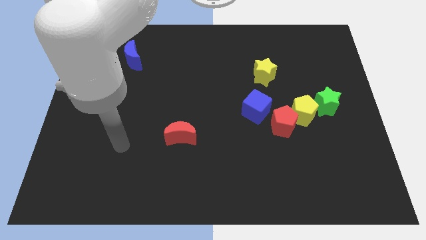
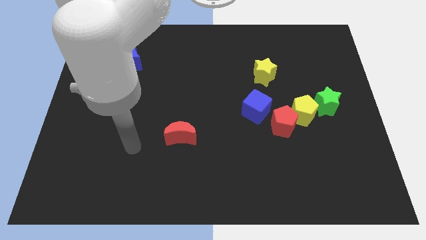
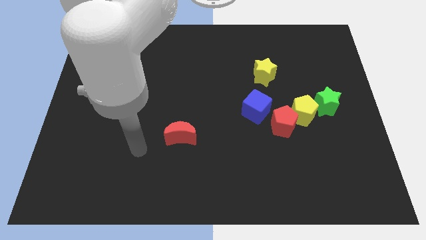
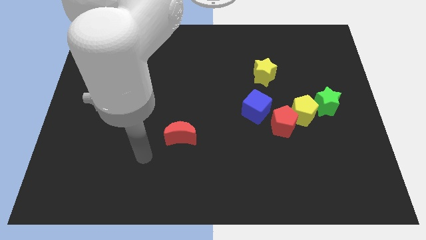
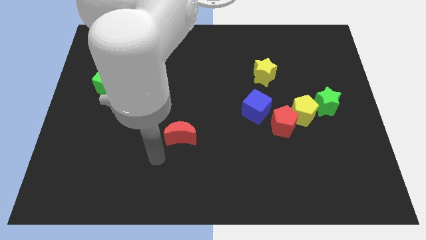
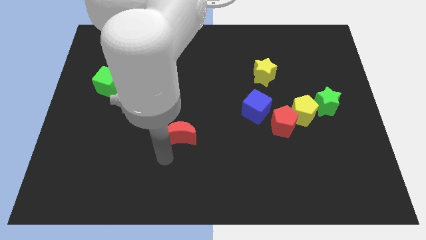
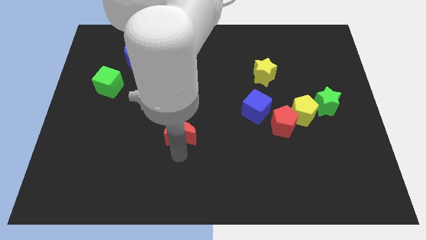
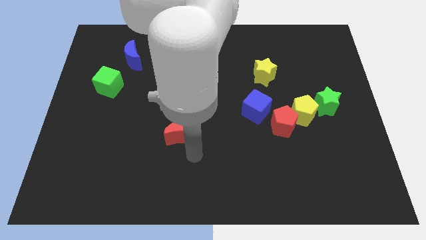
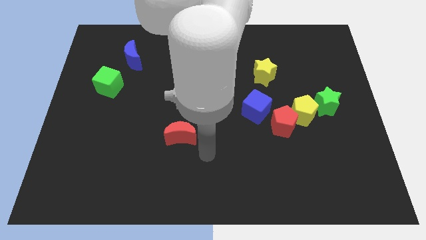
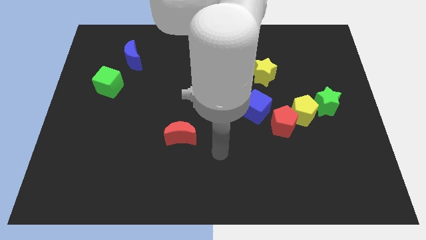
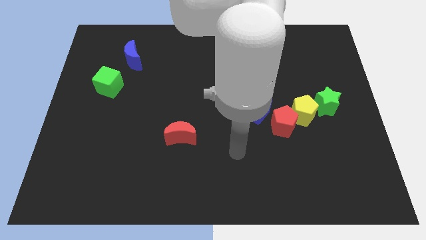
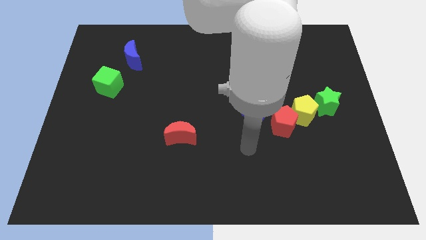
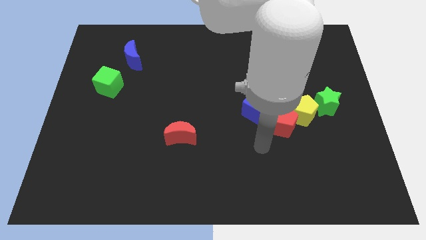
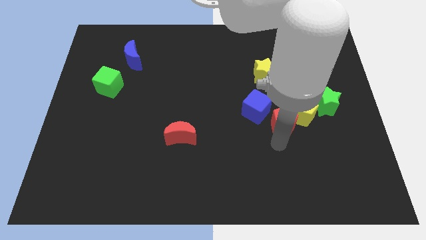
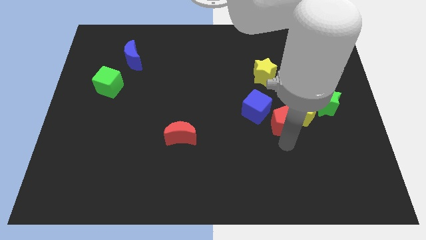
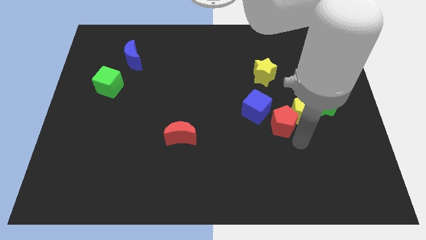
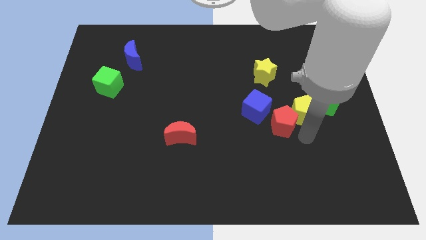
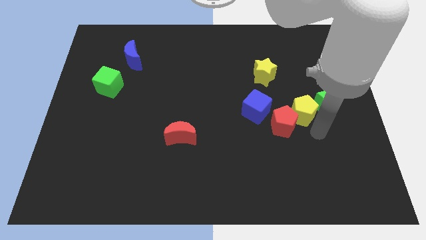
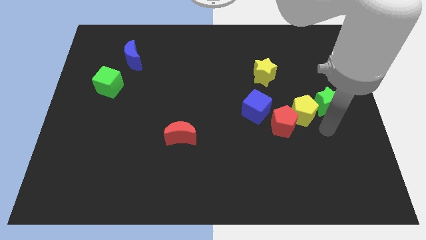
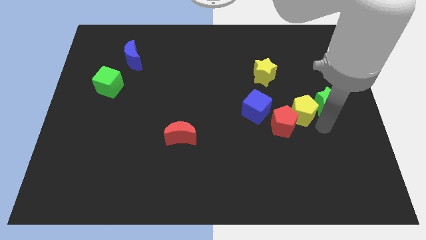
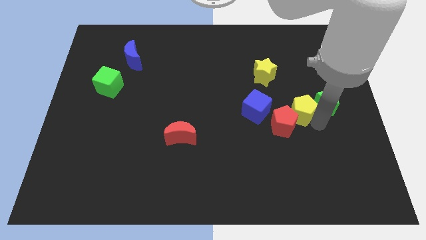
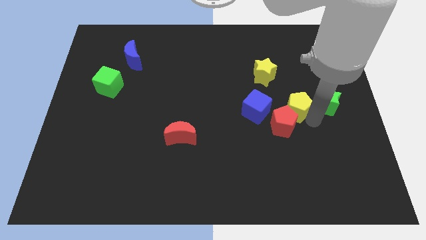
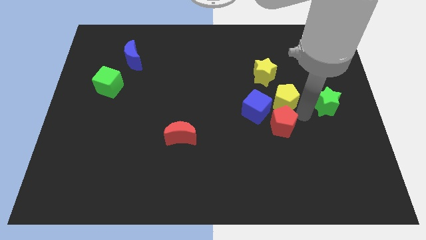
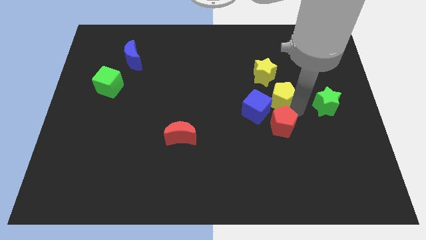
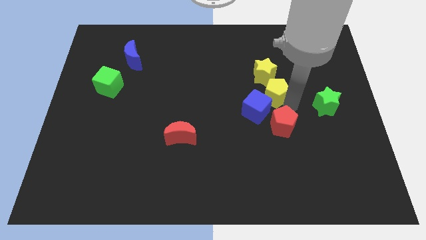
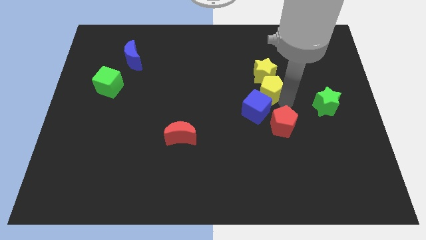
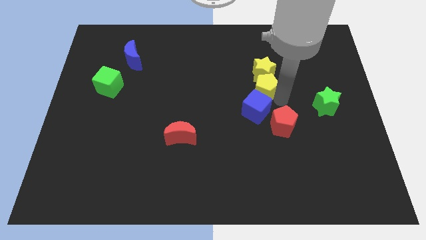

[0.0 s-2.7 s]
separate the yellow pentagon from the red pentagon and green star

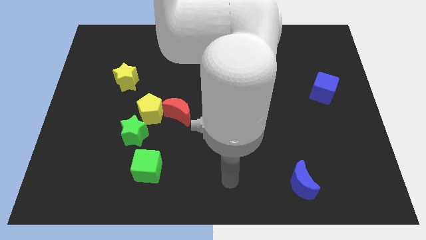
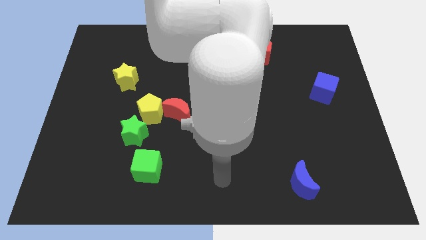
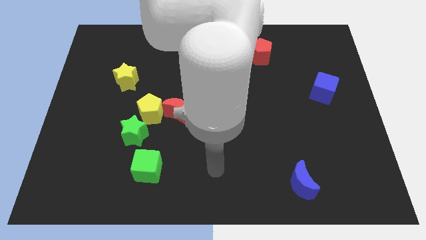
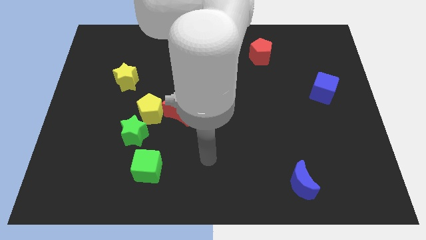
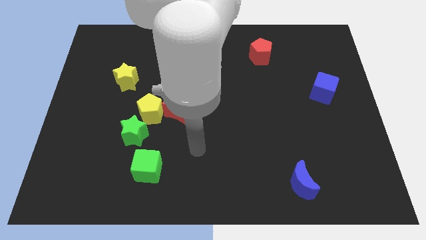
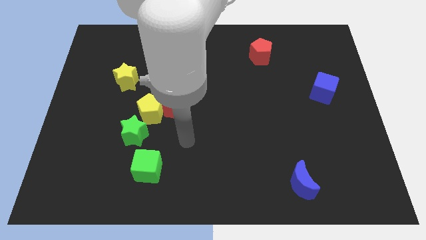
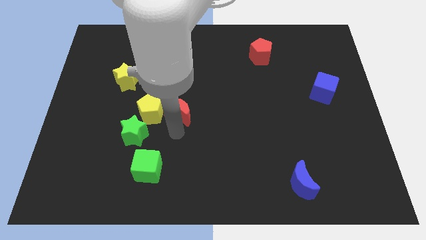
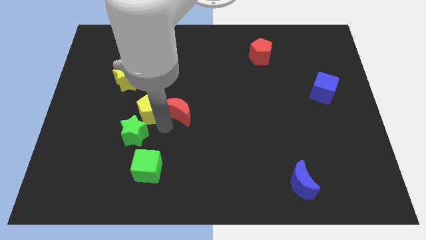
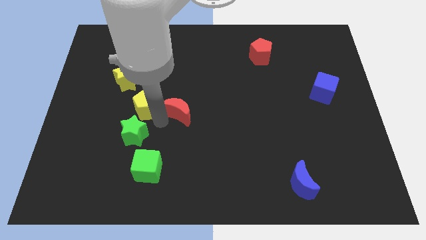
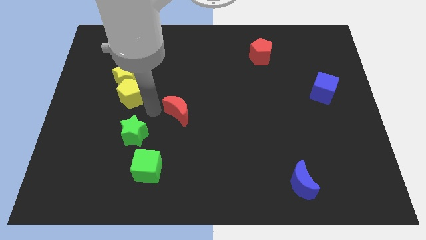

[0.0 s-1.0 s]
separate the red moon from the yellow pentagon

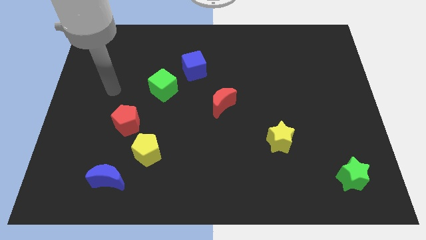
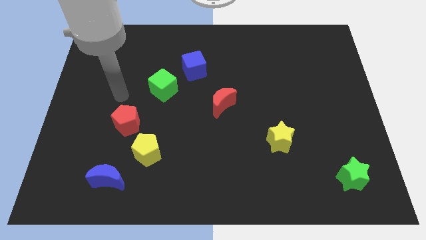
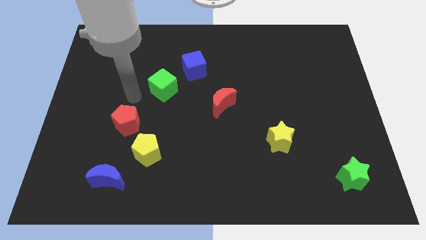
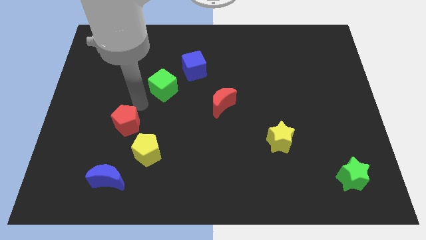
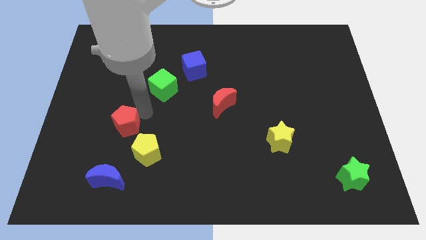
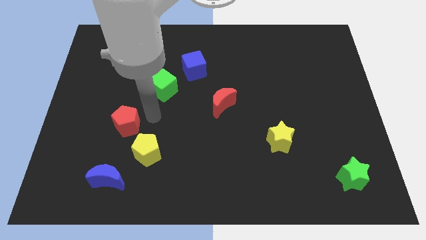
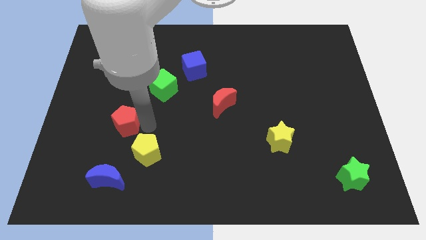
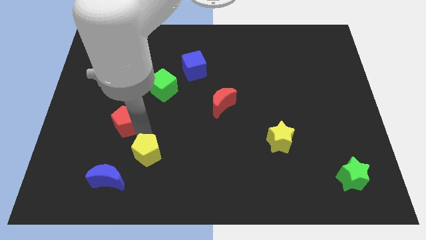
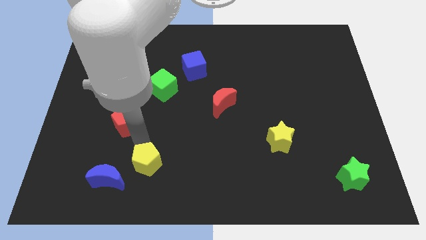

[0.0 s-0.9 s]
separate the red pentagon from the yellow pentagon

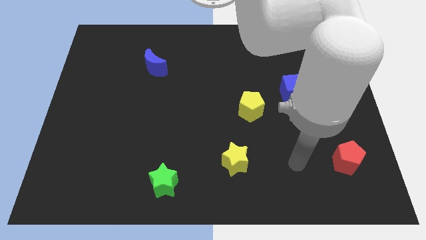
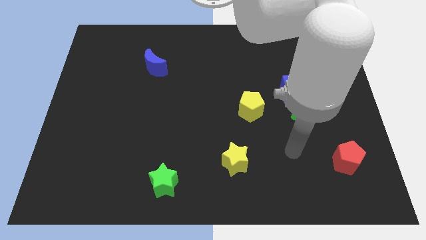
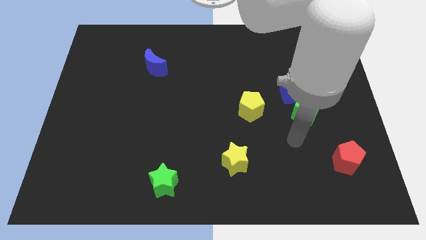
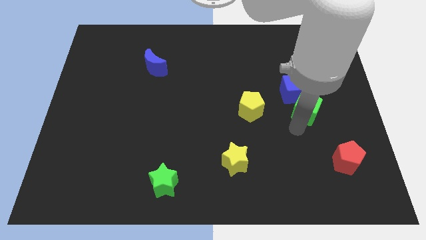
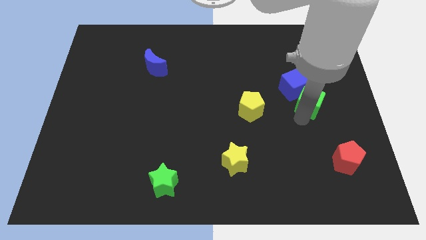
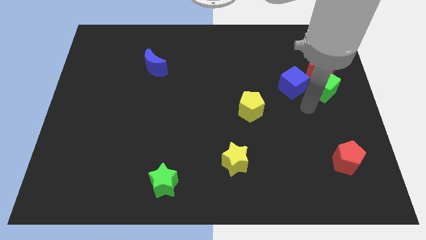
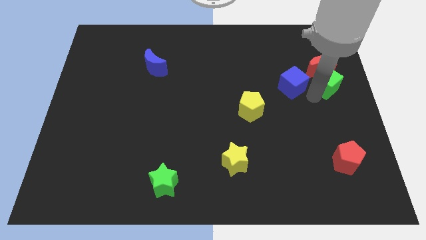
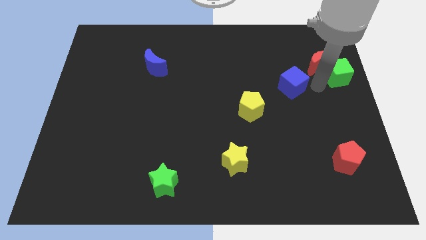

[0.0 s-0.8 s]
separate the blue cube from the green cube

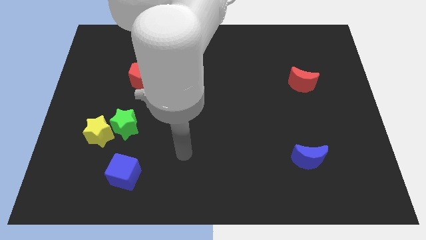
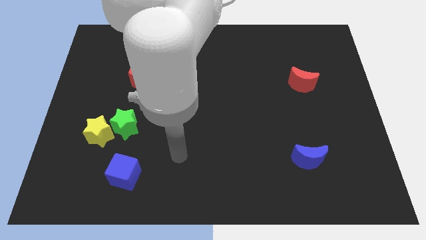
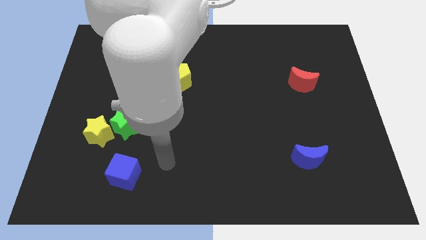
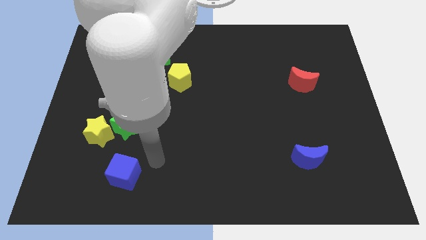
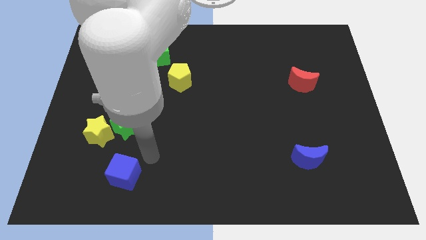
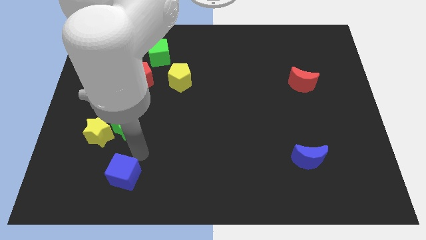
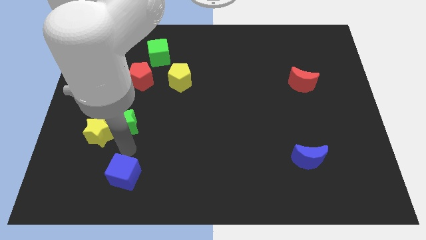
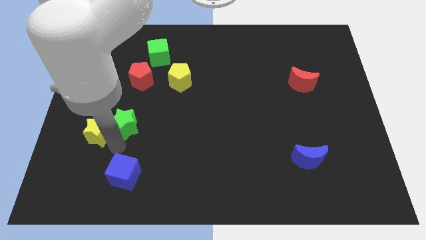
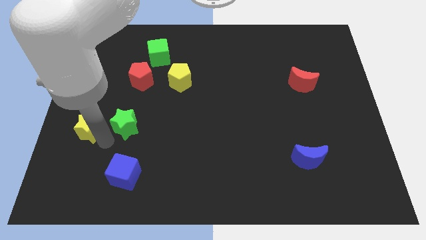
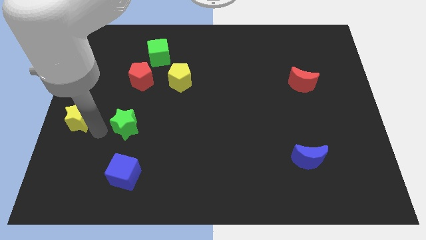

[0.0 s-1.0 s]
pull the green star apart from the yellow star

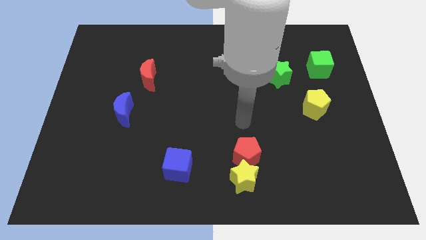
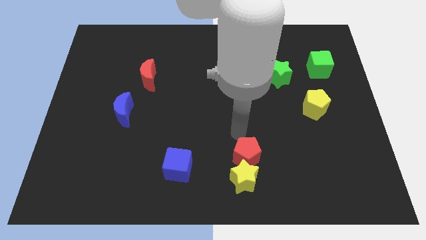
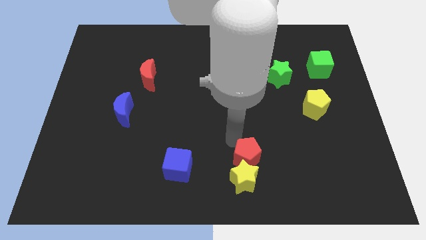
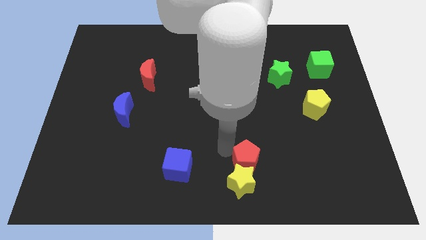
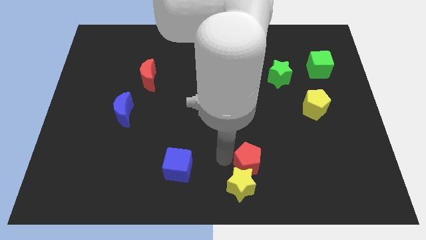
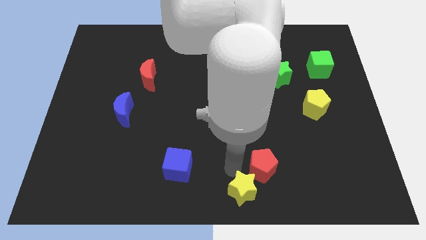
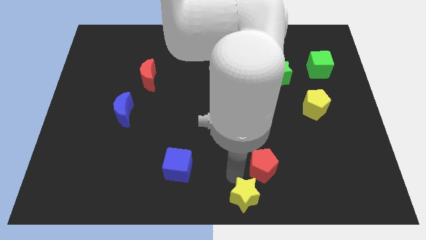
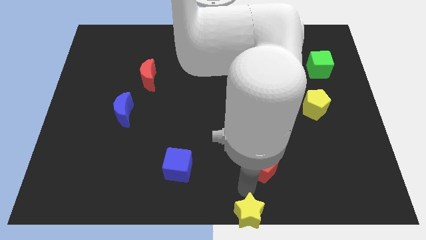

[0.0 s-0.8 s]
pull the red pentagon apart from the yellow star

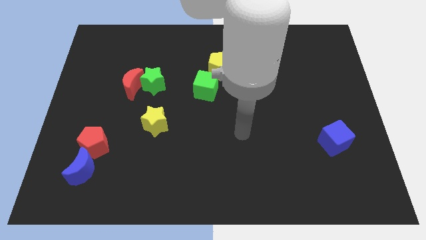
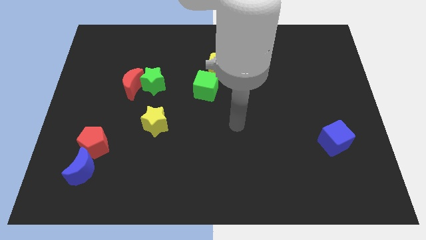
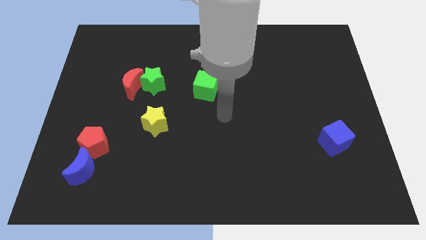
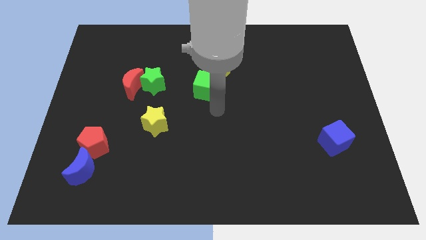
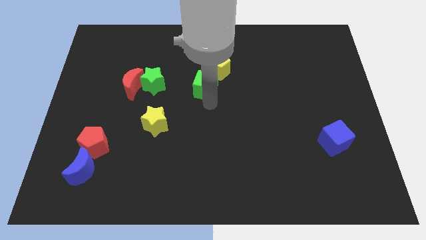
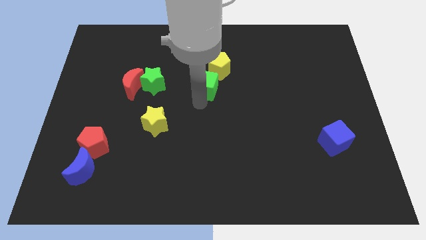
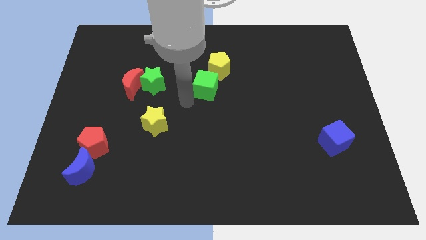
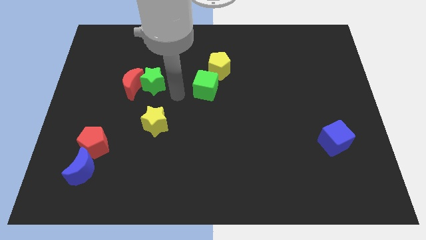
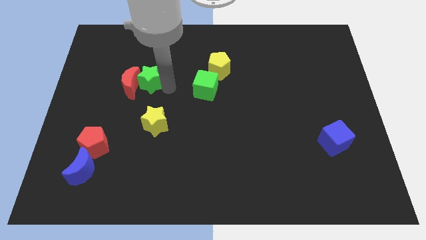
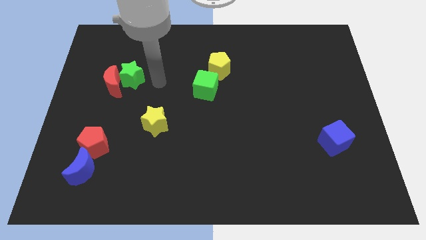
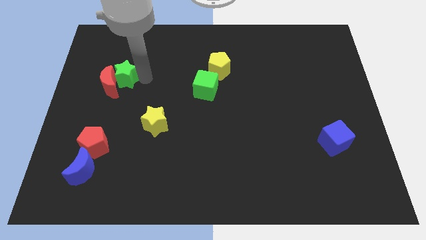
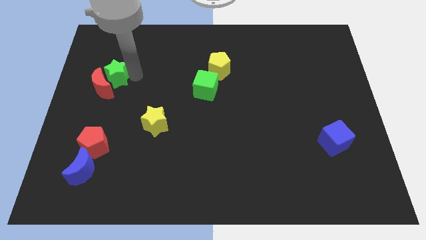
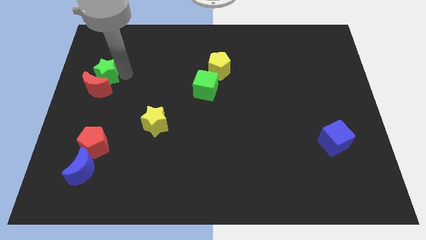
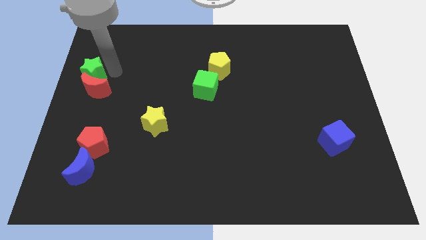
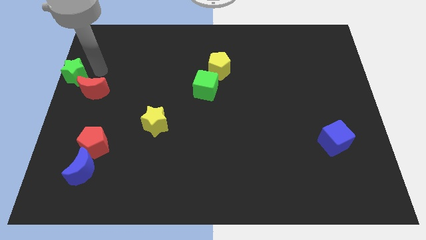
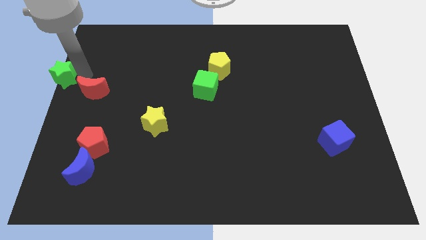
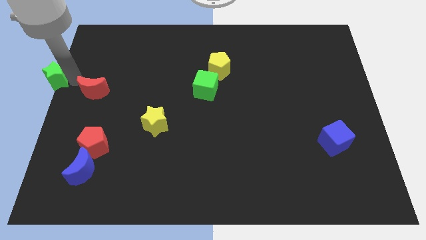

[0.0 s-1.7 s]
separate the red moon from the green star

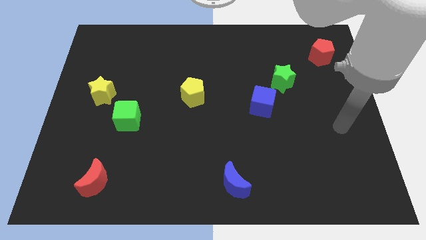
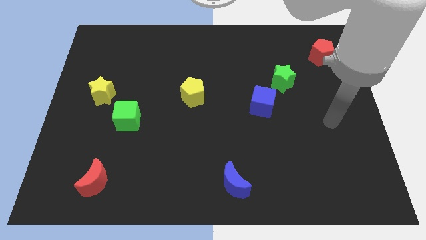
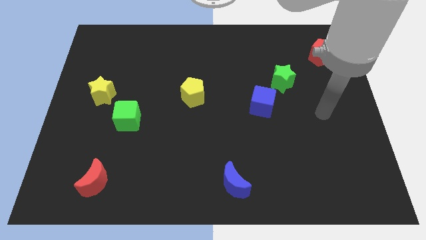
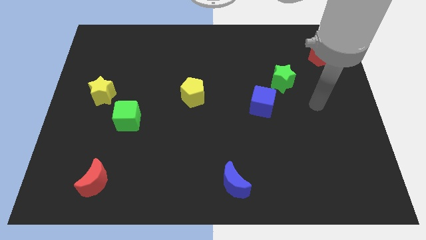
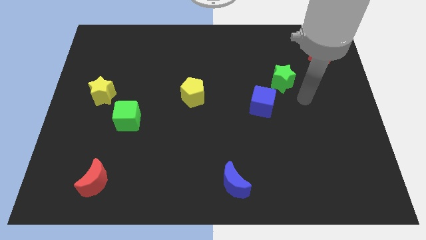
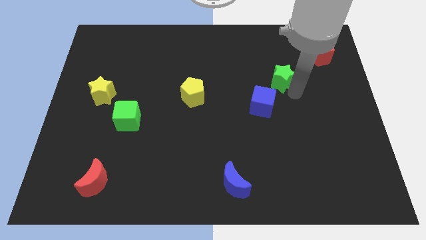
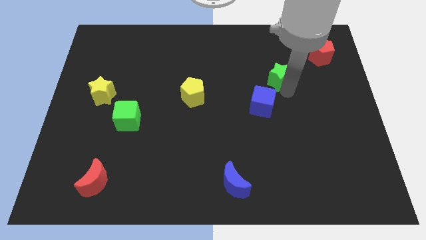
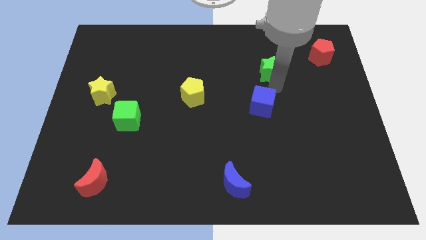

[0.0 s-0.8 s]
move the blue cube away from the green star
